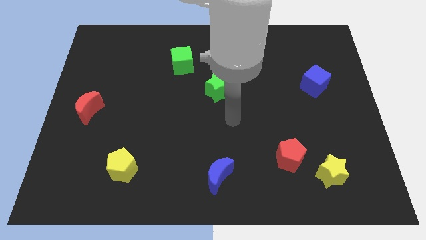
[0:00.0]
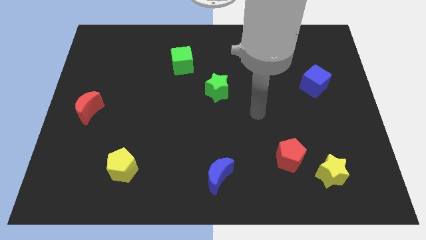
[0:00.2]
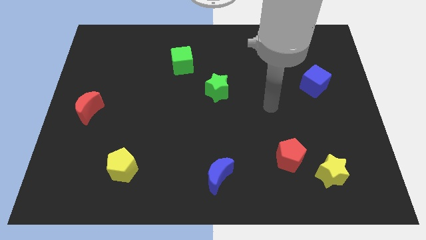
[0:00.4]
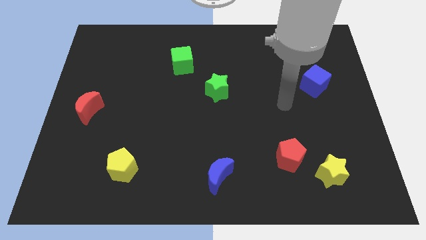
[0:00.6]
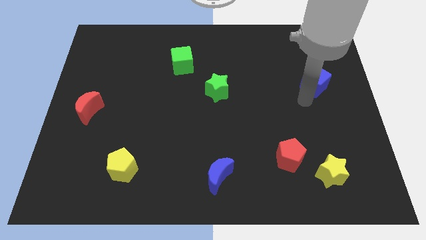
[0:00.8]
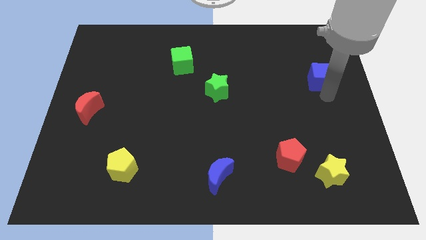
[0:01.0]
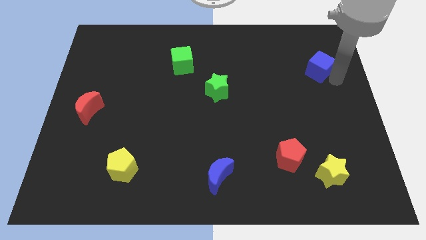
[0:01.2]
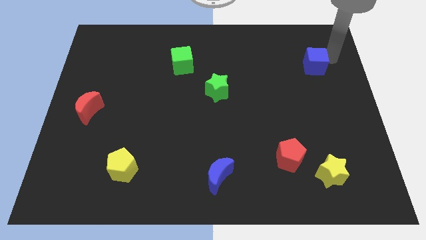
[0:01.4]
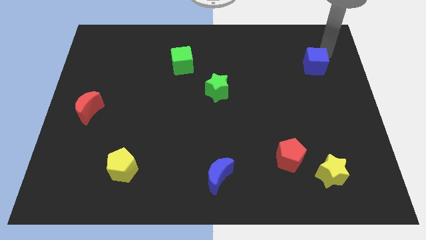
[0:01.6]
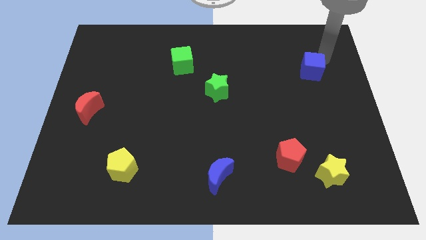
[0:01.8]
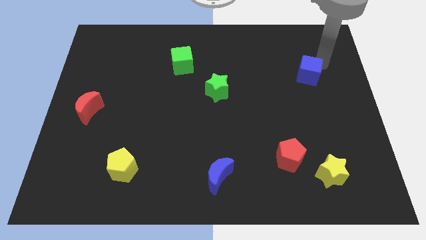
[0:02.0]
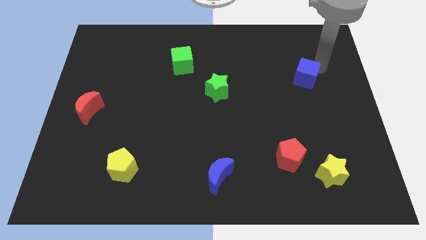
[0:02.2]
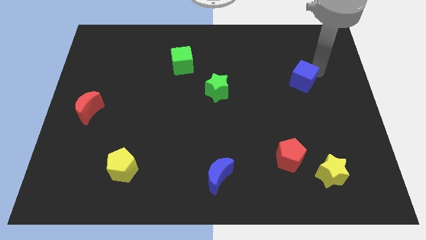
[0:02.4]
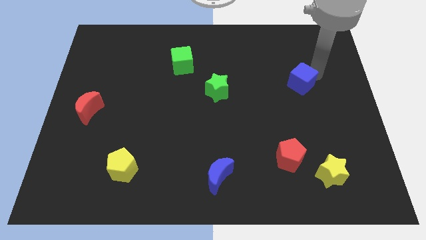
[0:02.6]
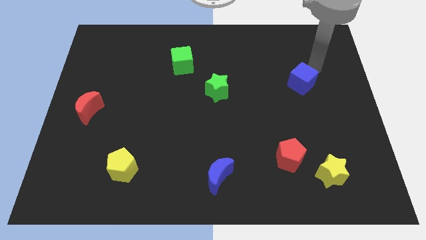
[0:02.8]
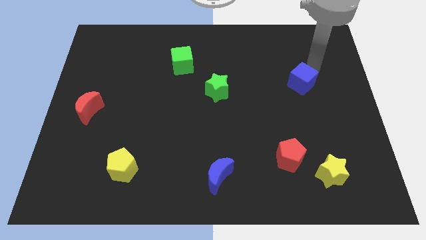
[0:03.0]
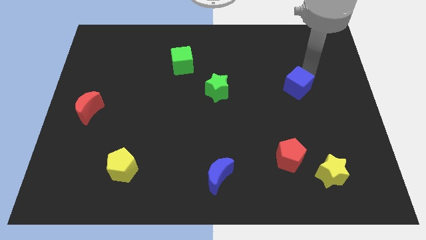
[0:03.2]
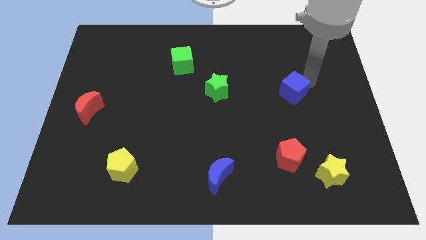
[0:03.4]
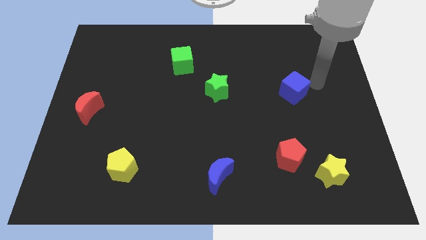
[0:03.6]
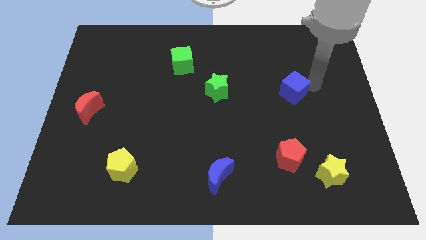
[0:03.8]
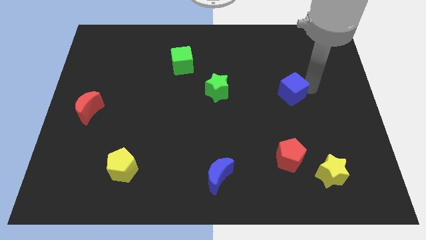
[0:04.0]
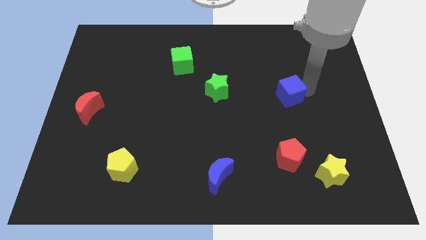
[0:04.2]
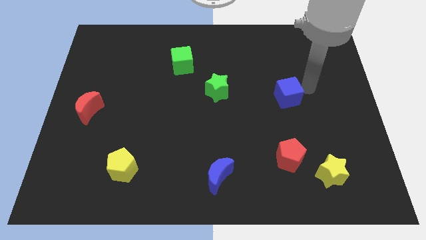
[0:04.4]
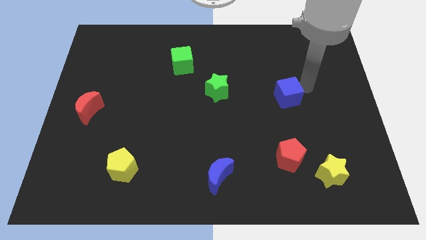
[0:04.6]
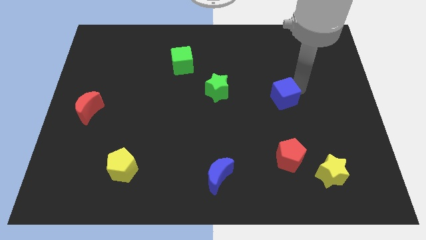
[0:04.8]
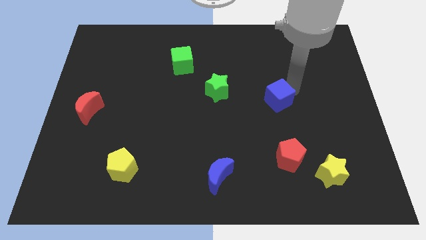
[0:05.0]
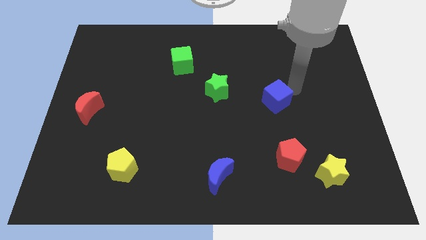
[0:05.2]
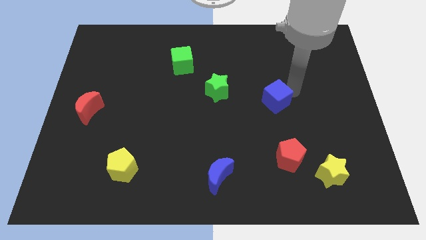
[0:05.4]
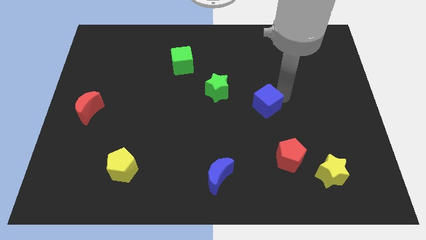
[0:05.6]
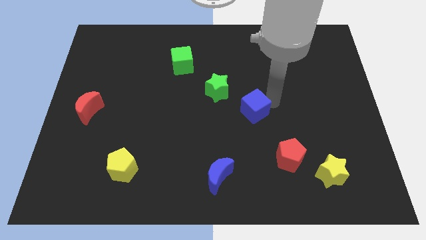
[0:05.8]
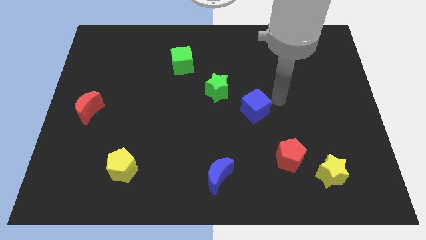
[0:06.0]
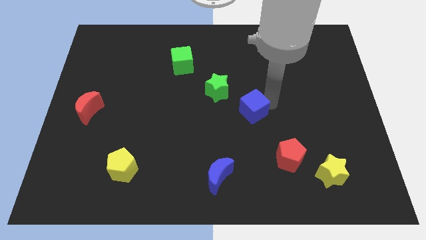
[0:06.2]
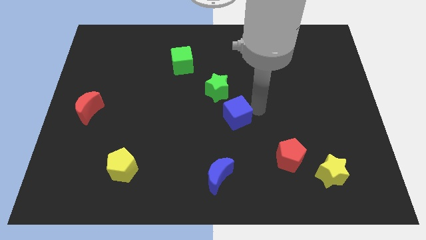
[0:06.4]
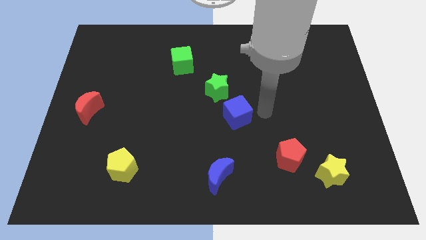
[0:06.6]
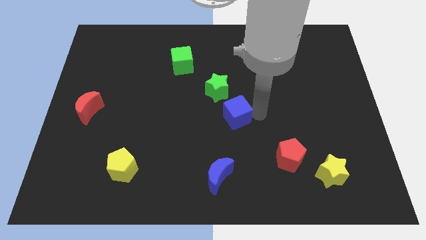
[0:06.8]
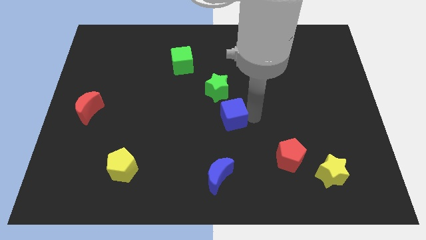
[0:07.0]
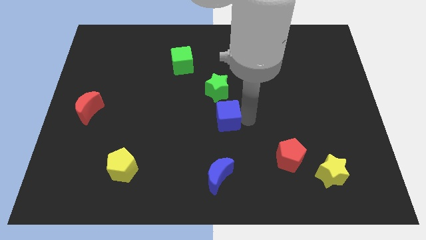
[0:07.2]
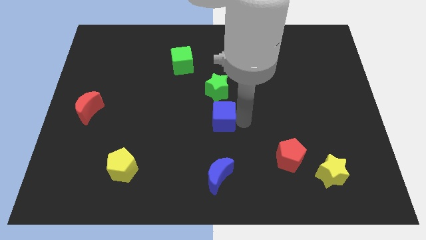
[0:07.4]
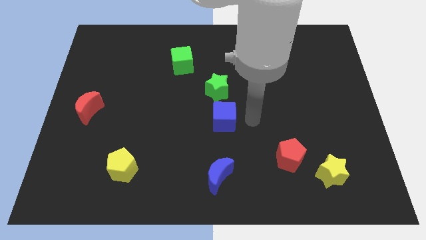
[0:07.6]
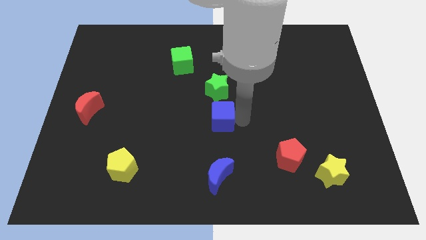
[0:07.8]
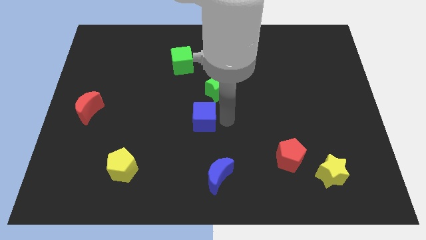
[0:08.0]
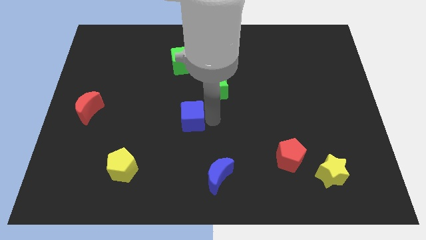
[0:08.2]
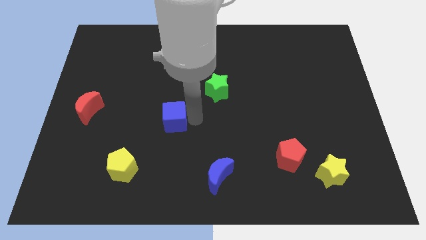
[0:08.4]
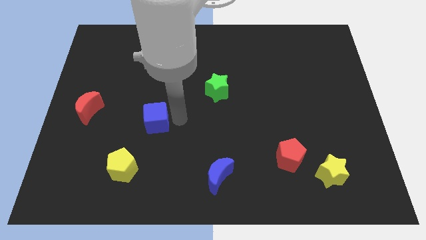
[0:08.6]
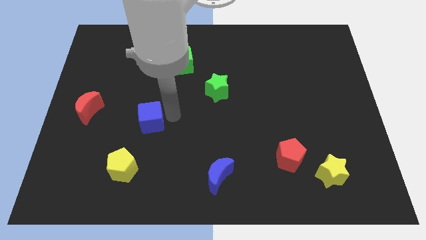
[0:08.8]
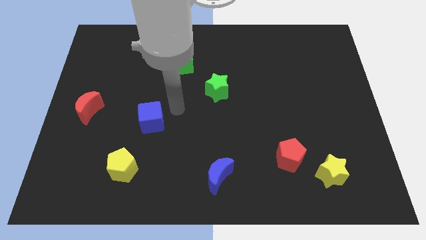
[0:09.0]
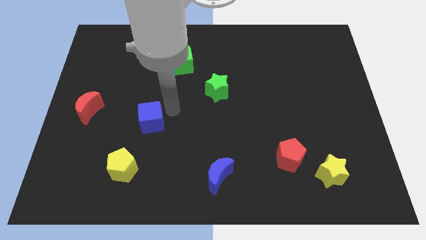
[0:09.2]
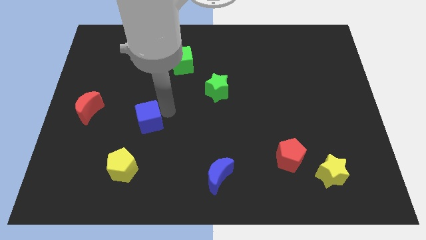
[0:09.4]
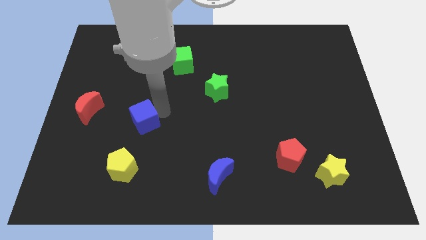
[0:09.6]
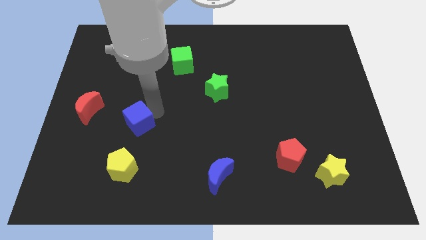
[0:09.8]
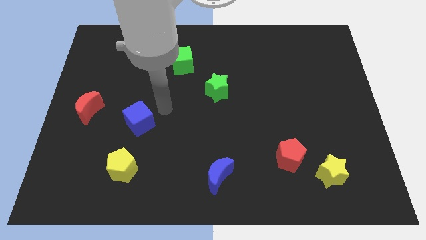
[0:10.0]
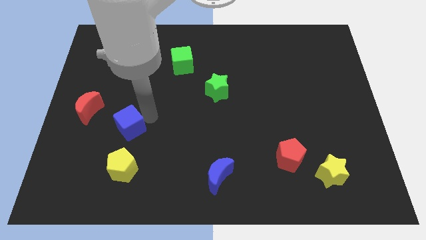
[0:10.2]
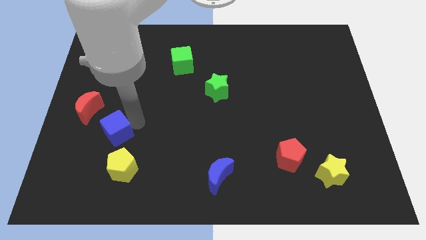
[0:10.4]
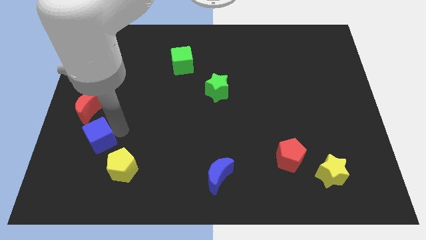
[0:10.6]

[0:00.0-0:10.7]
push the blue cube to the bottom side of the red moon

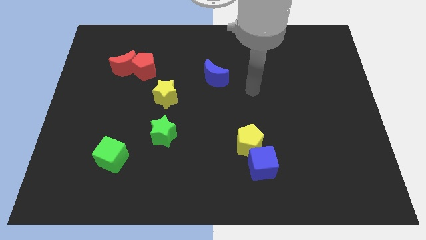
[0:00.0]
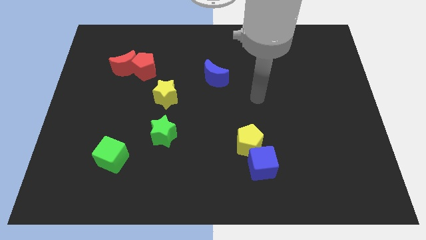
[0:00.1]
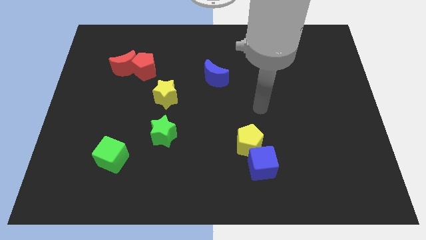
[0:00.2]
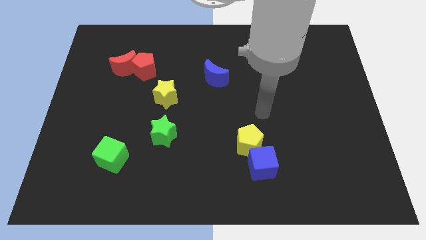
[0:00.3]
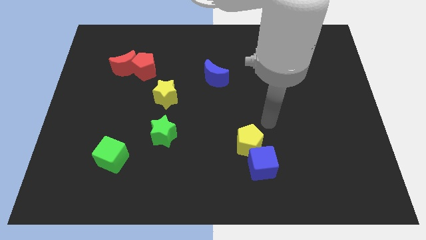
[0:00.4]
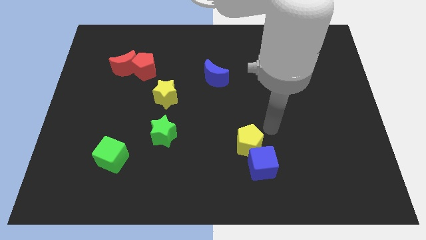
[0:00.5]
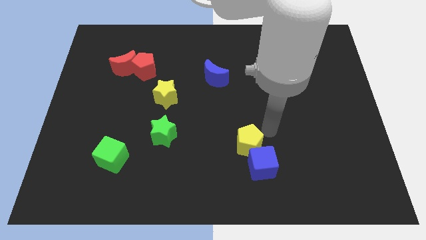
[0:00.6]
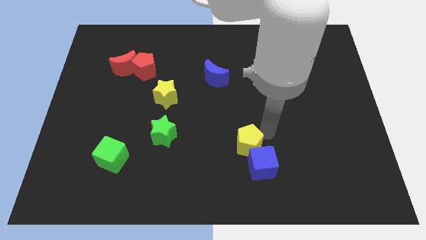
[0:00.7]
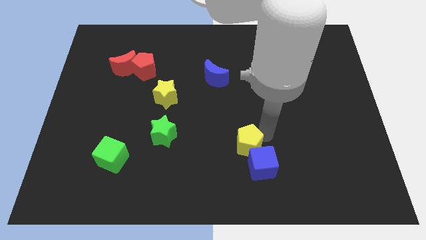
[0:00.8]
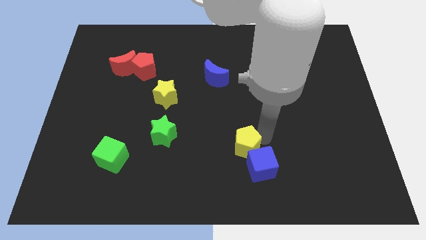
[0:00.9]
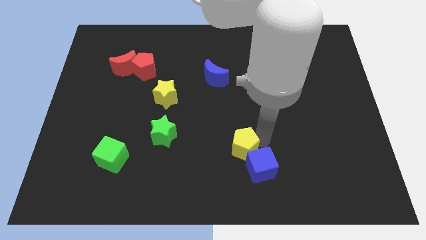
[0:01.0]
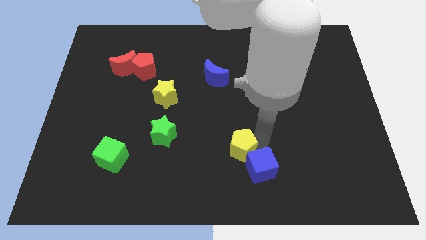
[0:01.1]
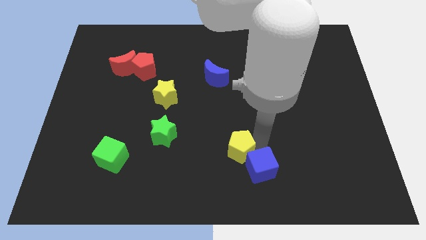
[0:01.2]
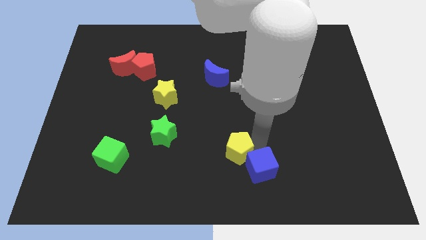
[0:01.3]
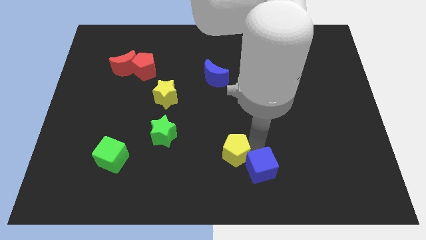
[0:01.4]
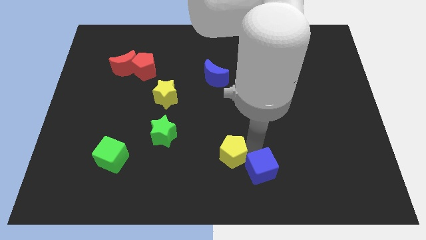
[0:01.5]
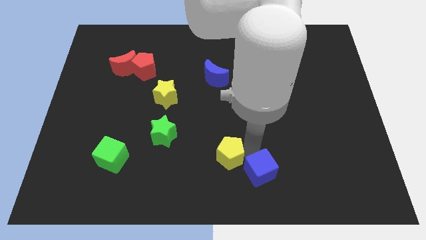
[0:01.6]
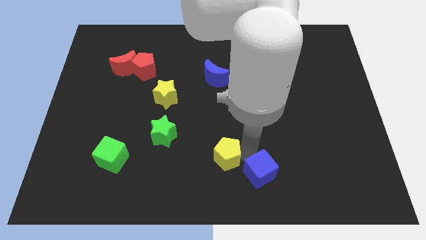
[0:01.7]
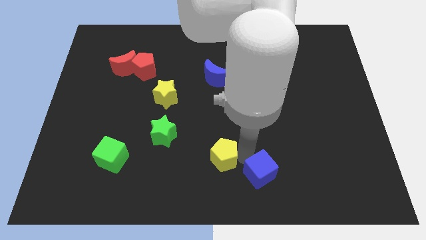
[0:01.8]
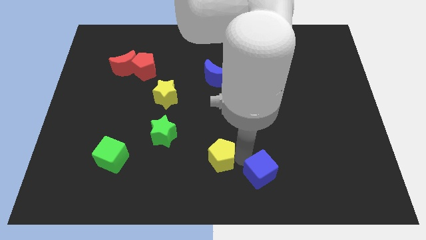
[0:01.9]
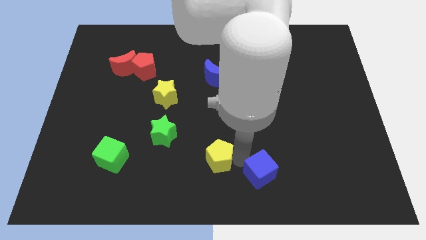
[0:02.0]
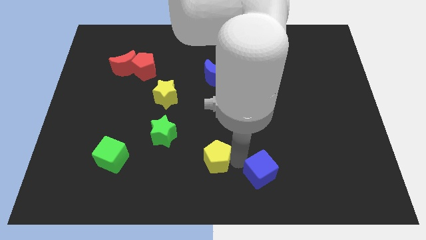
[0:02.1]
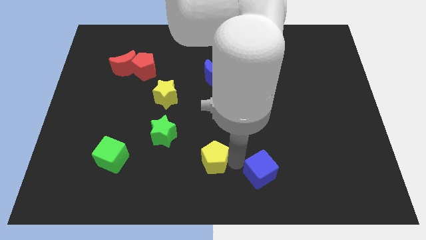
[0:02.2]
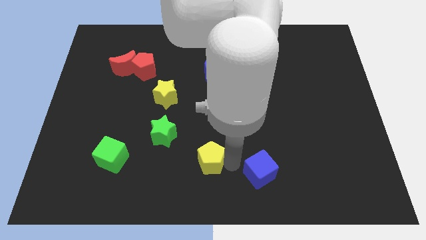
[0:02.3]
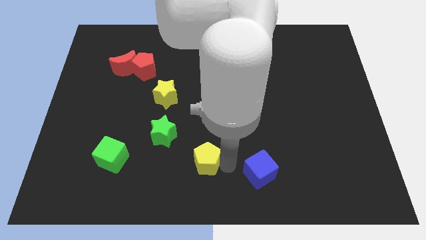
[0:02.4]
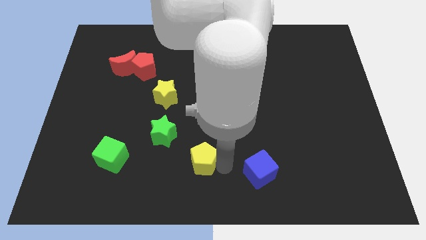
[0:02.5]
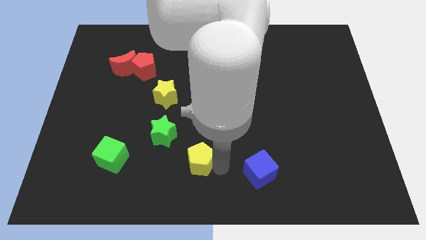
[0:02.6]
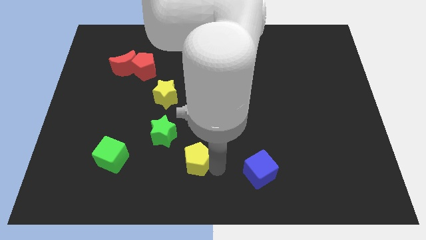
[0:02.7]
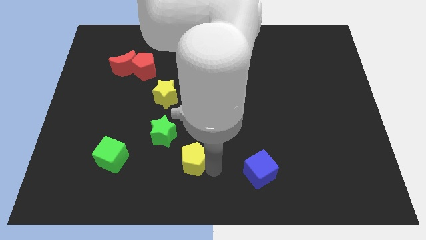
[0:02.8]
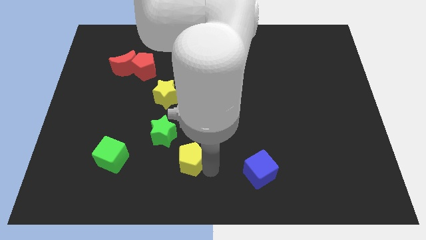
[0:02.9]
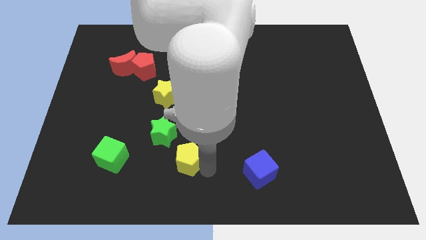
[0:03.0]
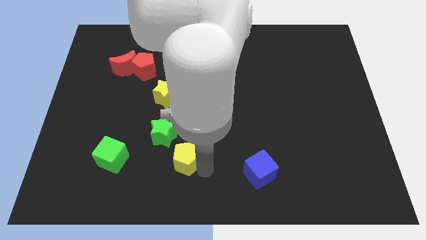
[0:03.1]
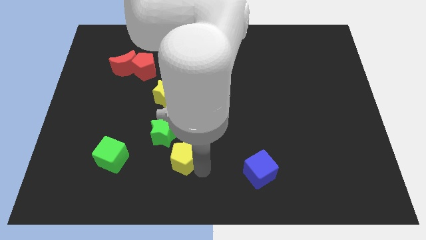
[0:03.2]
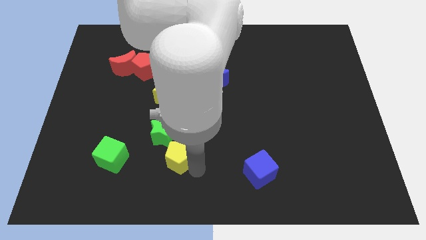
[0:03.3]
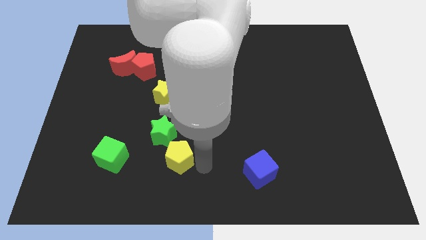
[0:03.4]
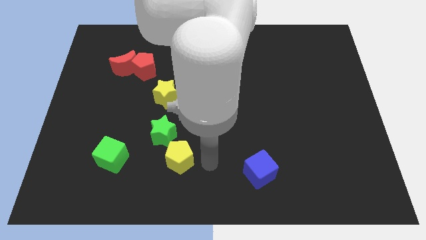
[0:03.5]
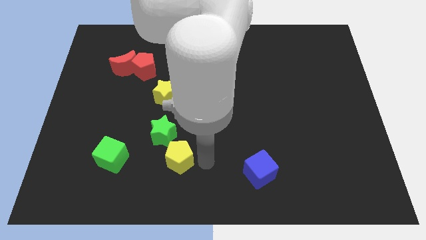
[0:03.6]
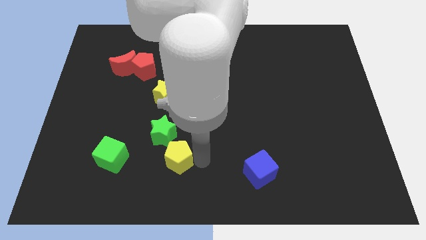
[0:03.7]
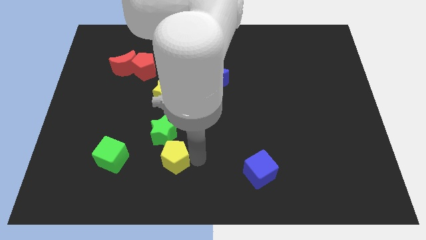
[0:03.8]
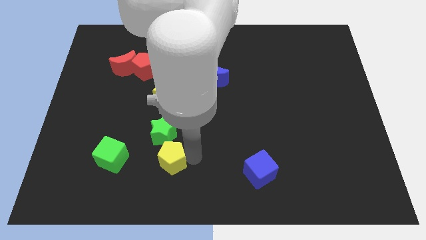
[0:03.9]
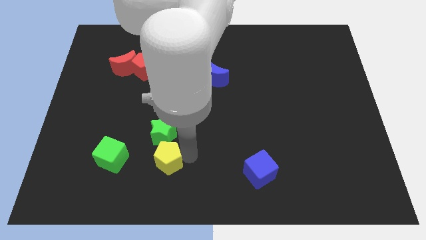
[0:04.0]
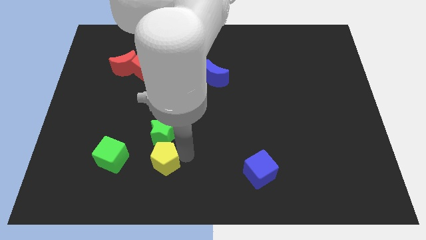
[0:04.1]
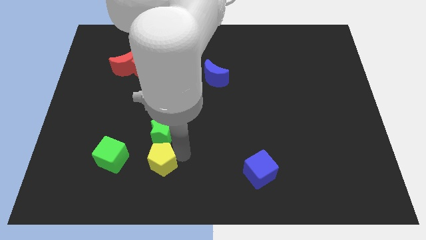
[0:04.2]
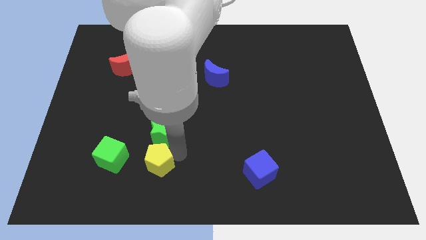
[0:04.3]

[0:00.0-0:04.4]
slide the yellow pentagon diagonally down and to the left of the green star
